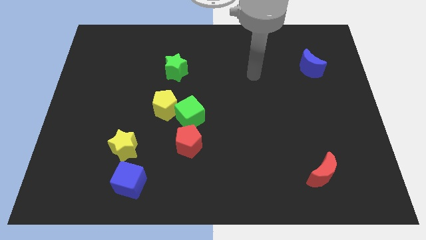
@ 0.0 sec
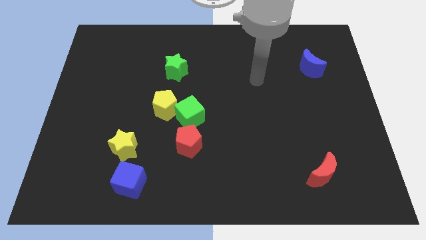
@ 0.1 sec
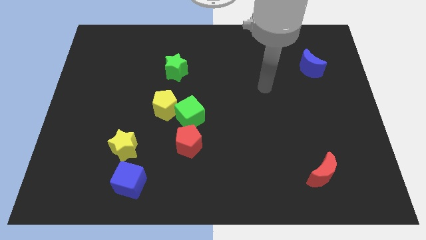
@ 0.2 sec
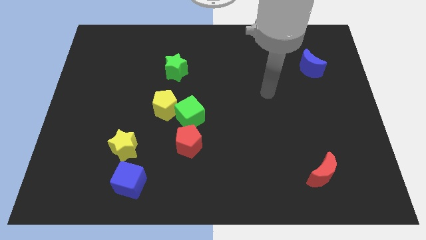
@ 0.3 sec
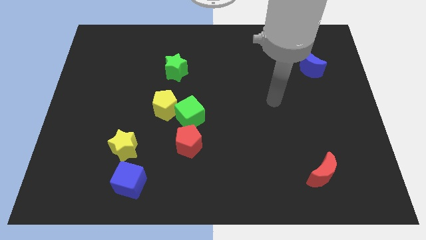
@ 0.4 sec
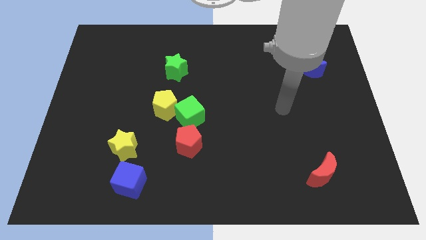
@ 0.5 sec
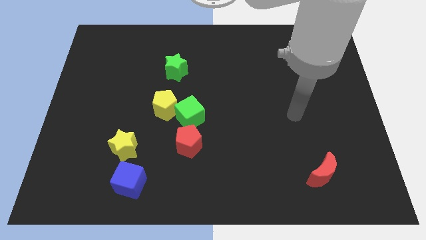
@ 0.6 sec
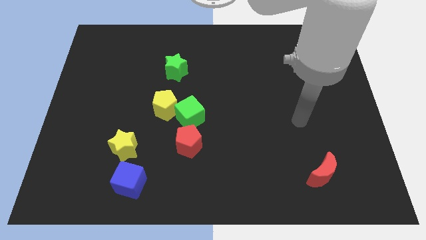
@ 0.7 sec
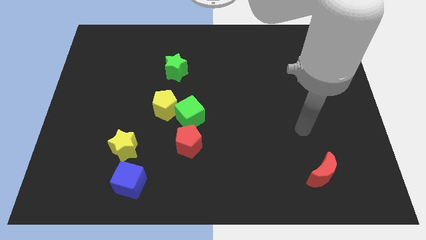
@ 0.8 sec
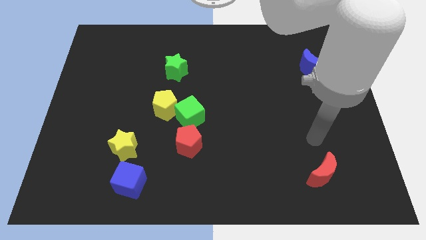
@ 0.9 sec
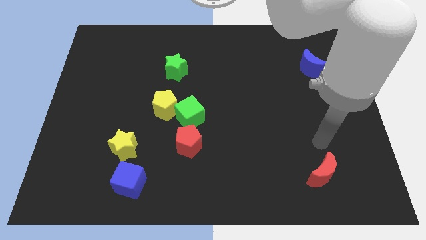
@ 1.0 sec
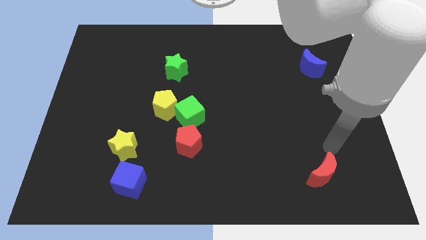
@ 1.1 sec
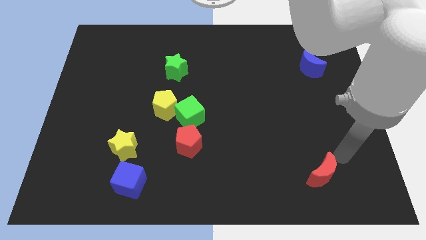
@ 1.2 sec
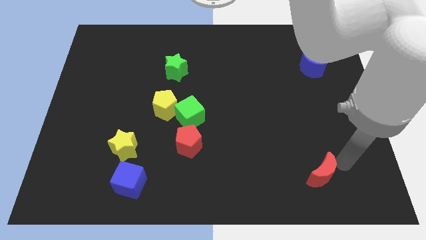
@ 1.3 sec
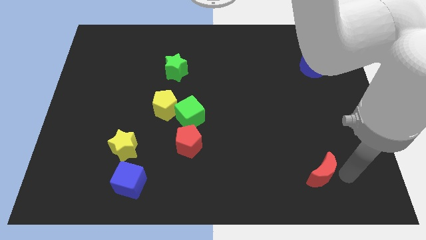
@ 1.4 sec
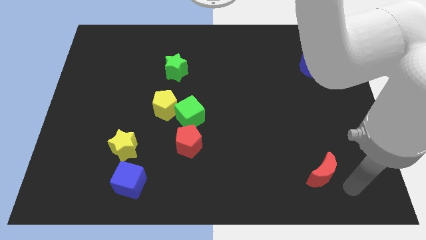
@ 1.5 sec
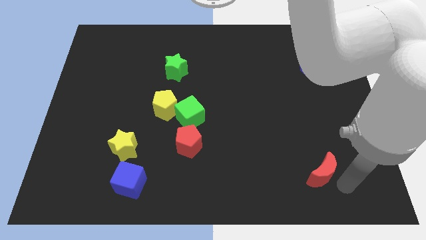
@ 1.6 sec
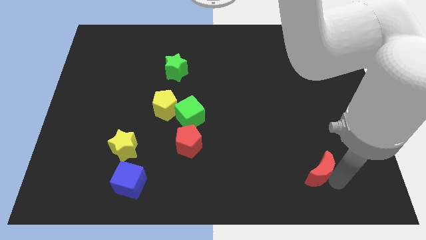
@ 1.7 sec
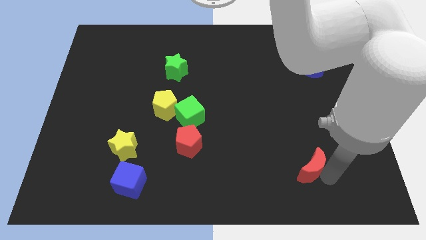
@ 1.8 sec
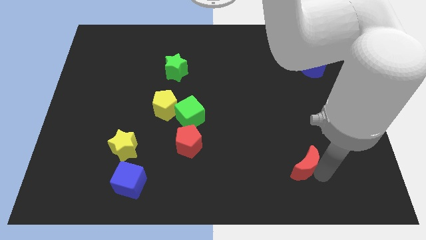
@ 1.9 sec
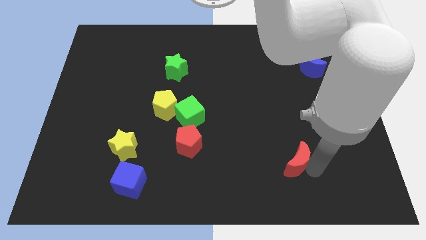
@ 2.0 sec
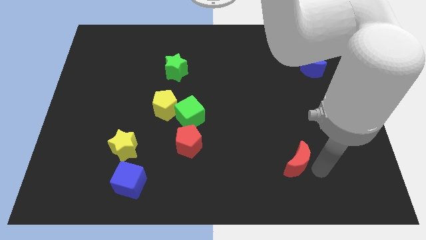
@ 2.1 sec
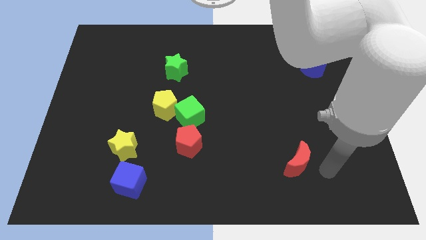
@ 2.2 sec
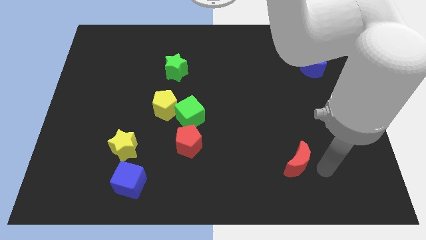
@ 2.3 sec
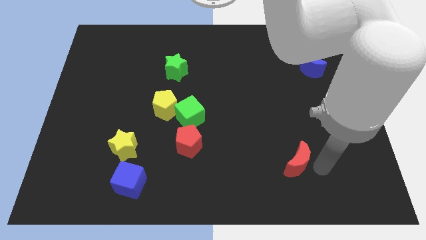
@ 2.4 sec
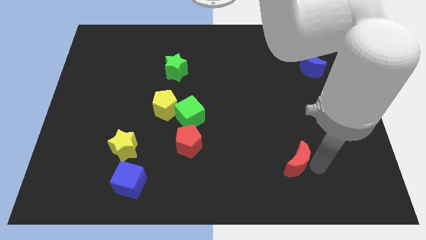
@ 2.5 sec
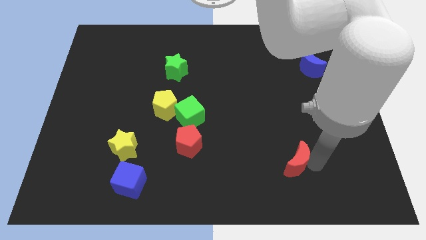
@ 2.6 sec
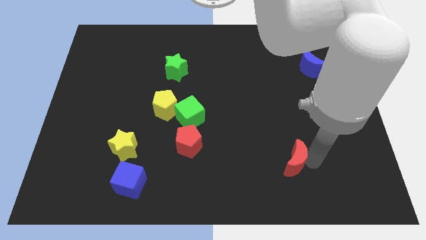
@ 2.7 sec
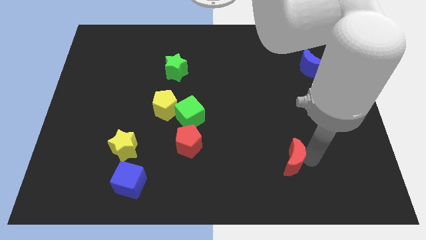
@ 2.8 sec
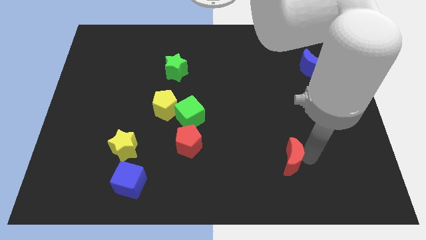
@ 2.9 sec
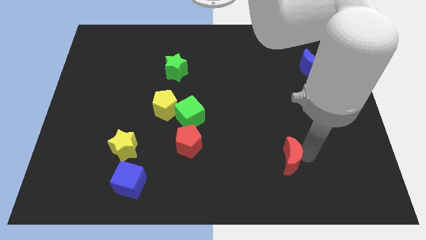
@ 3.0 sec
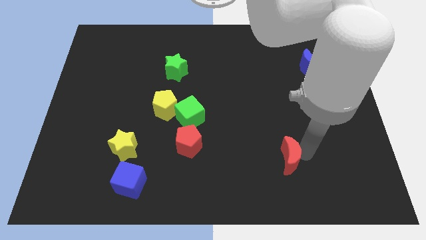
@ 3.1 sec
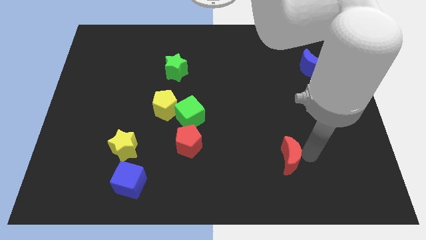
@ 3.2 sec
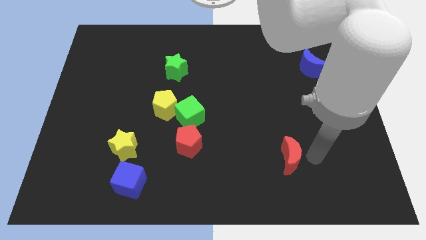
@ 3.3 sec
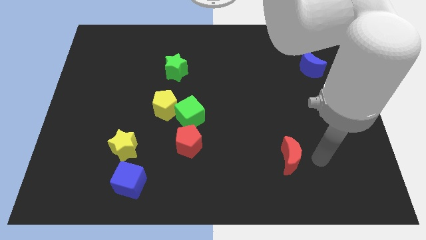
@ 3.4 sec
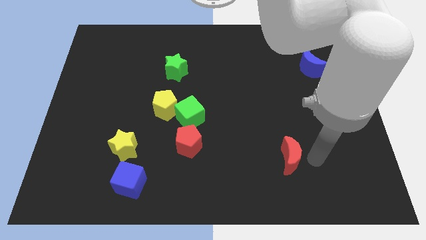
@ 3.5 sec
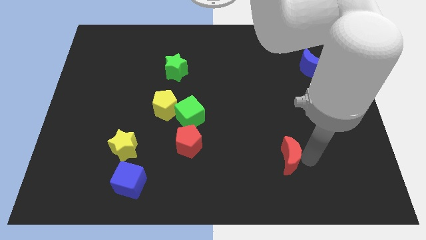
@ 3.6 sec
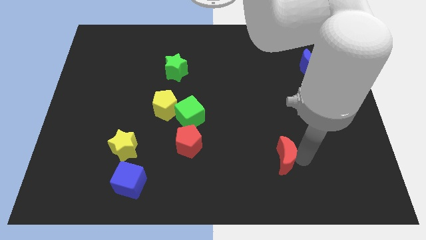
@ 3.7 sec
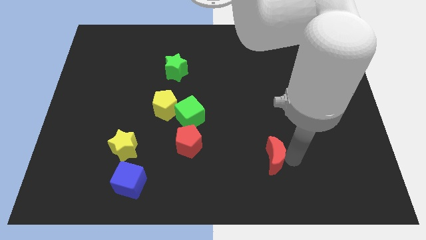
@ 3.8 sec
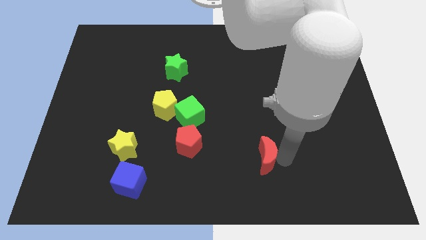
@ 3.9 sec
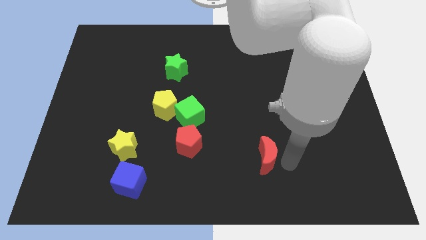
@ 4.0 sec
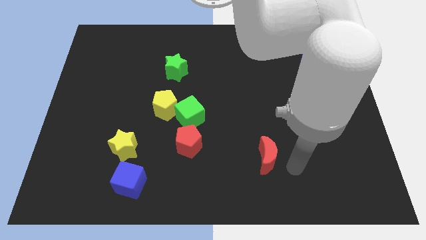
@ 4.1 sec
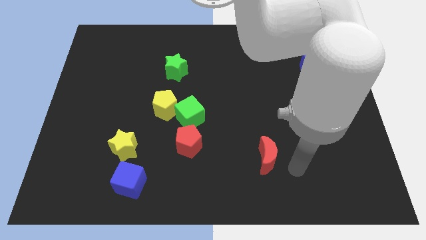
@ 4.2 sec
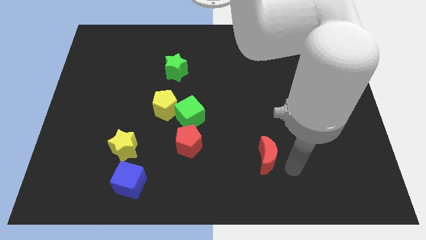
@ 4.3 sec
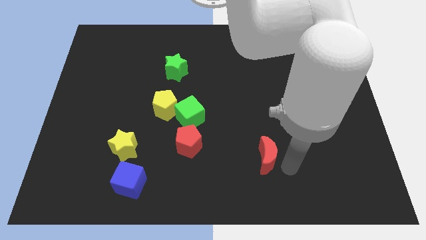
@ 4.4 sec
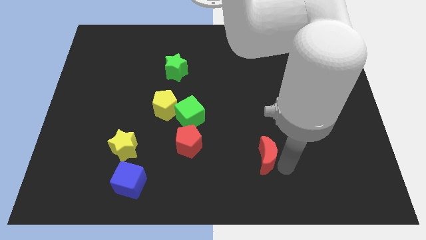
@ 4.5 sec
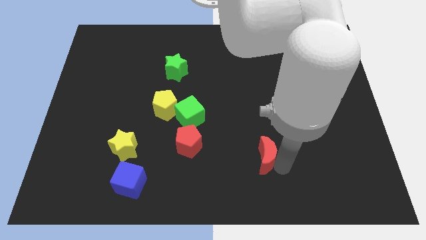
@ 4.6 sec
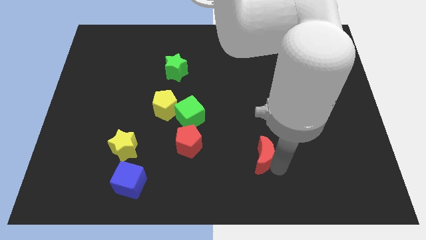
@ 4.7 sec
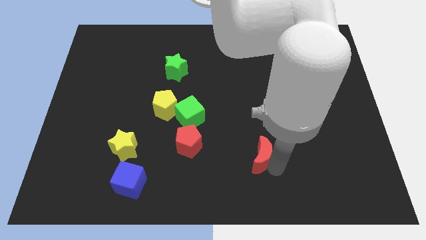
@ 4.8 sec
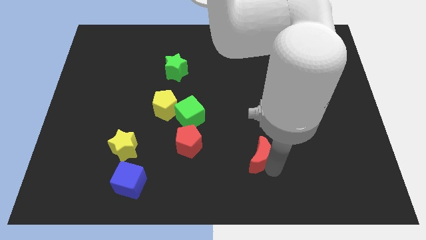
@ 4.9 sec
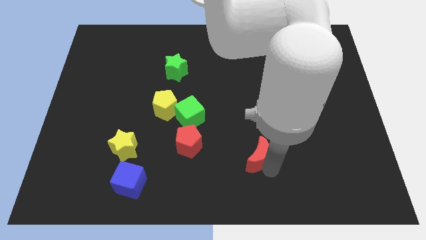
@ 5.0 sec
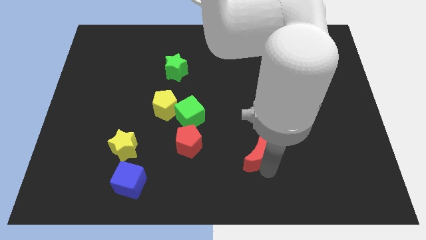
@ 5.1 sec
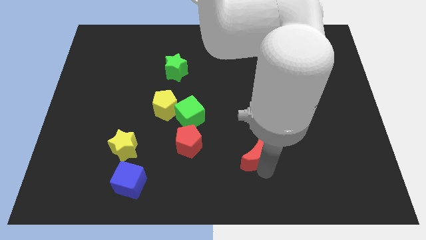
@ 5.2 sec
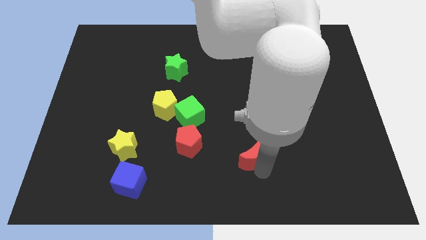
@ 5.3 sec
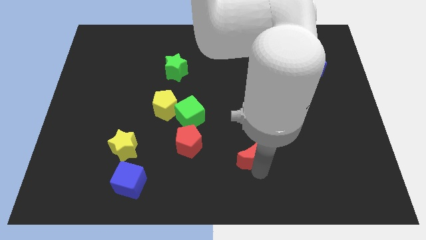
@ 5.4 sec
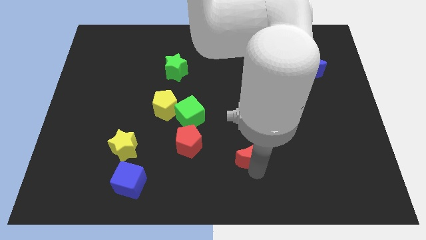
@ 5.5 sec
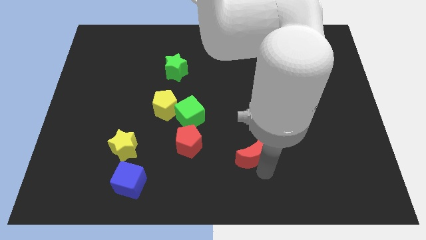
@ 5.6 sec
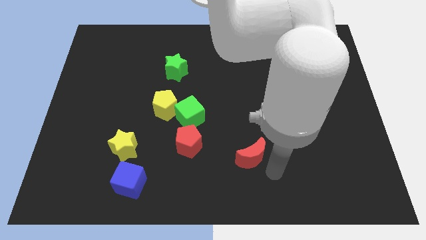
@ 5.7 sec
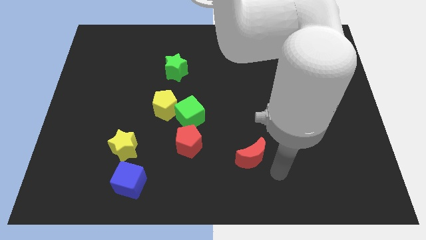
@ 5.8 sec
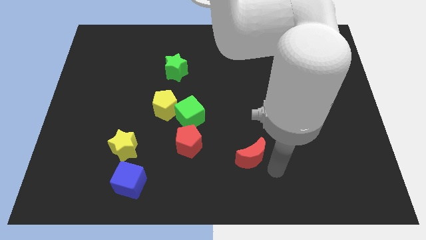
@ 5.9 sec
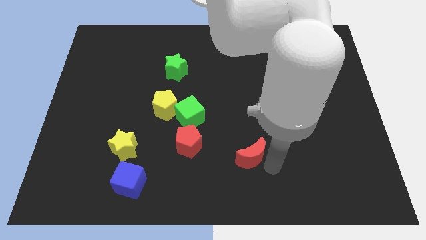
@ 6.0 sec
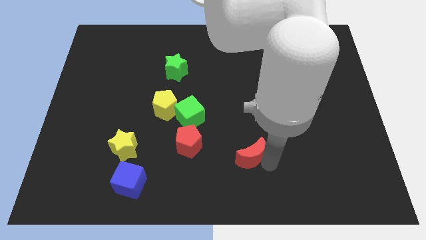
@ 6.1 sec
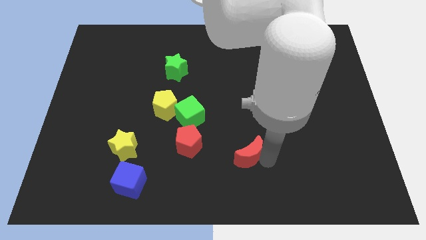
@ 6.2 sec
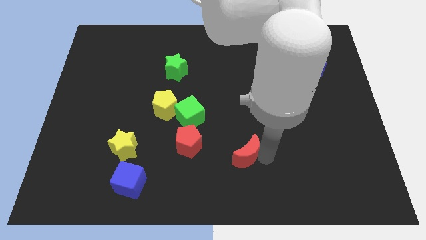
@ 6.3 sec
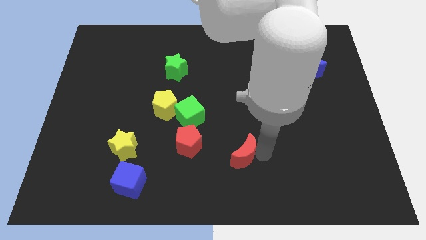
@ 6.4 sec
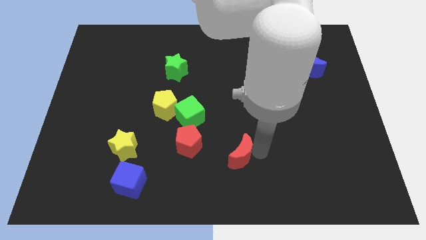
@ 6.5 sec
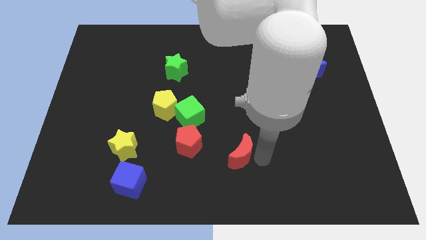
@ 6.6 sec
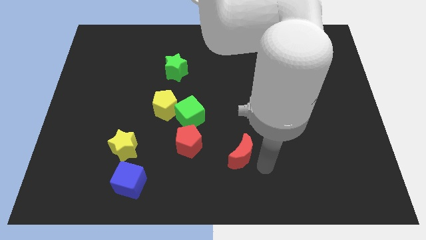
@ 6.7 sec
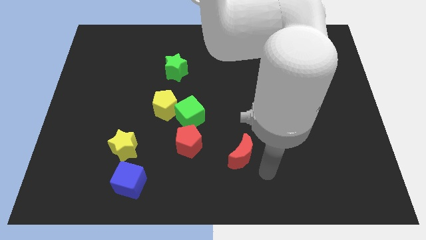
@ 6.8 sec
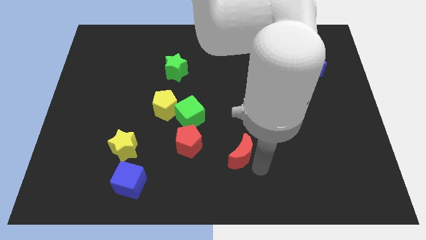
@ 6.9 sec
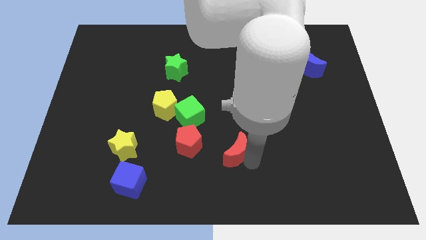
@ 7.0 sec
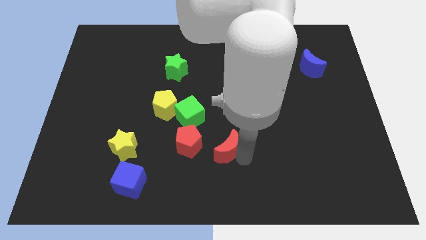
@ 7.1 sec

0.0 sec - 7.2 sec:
move the red moon diagonally down and to the right of the green cube
